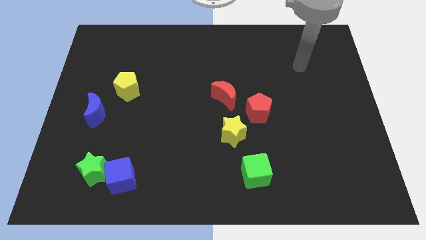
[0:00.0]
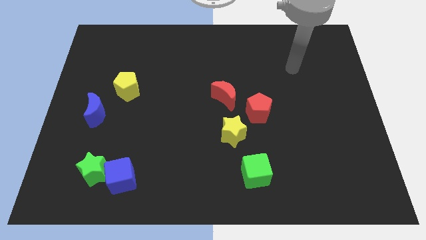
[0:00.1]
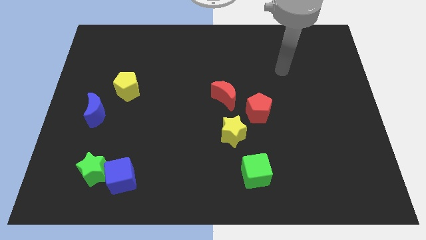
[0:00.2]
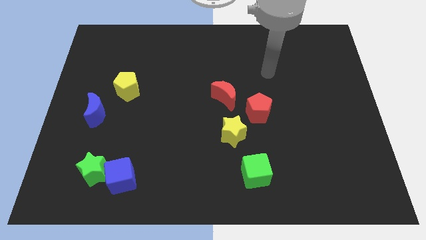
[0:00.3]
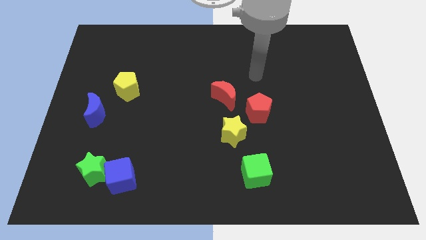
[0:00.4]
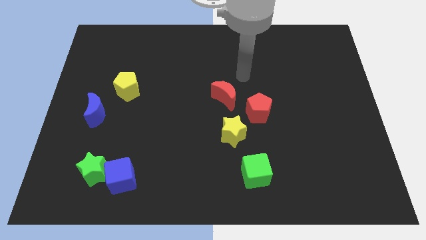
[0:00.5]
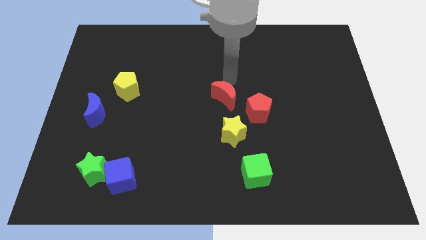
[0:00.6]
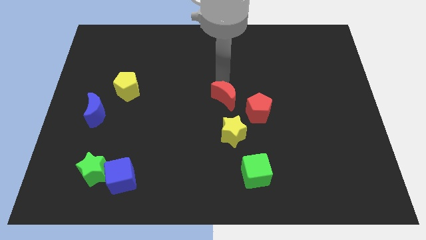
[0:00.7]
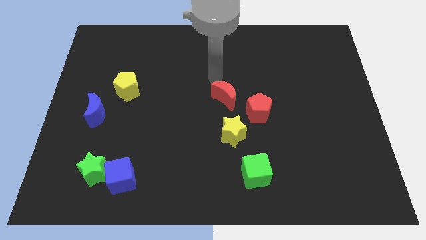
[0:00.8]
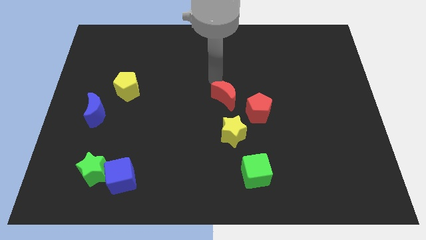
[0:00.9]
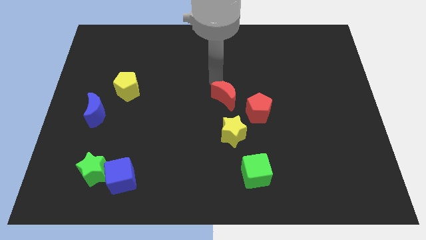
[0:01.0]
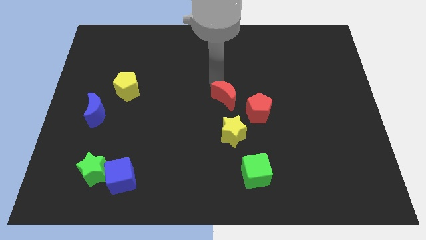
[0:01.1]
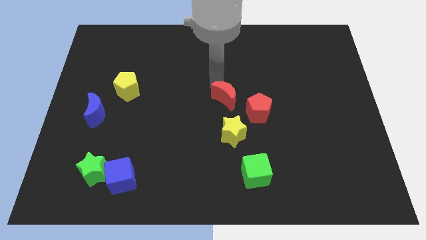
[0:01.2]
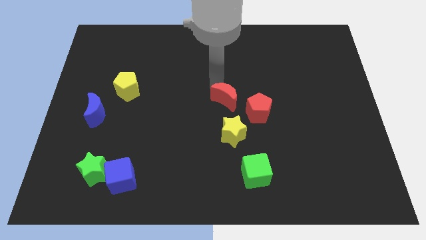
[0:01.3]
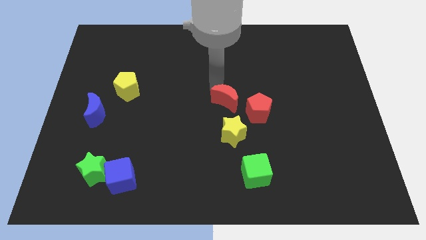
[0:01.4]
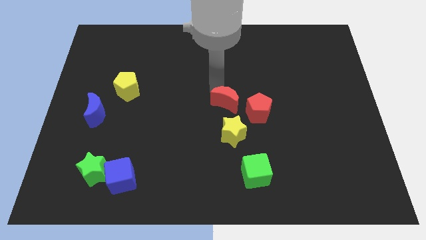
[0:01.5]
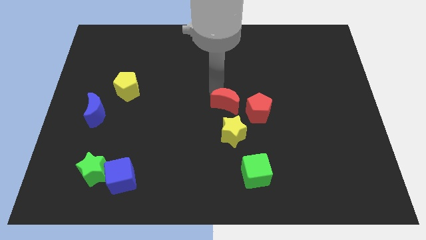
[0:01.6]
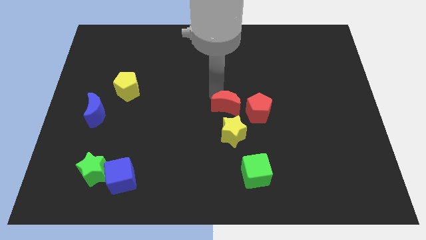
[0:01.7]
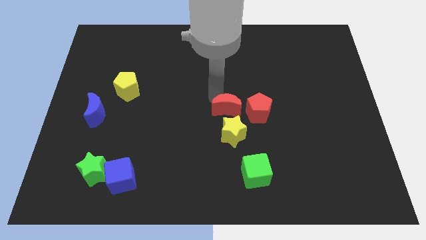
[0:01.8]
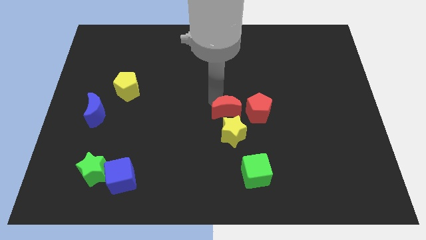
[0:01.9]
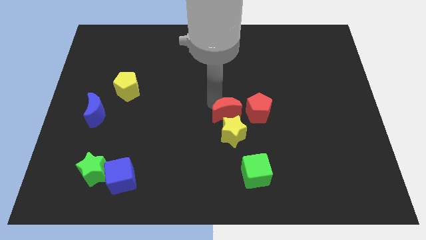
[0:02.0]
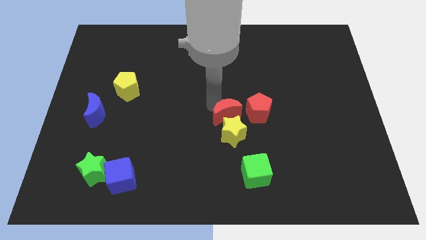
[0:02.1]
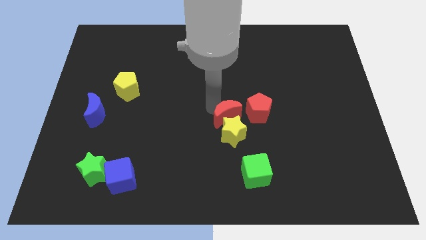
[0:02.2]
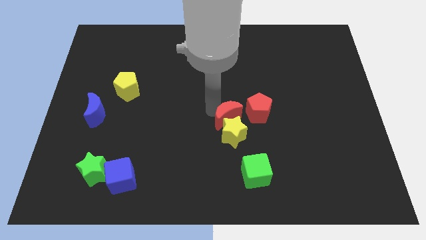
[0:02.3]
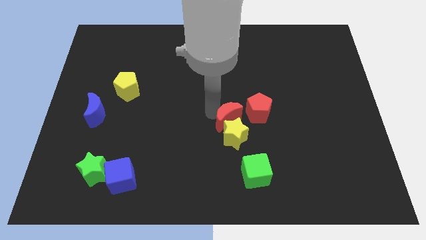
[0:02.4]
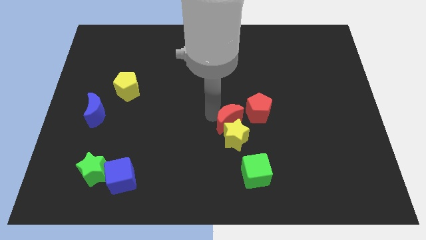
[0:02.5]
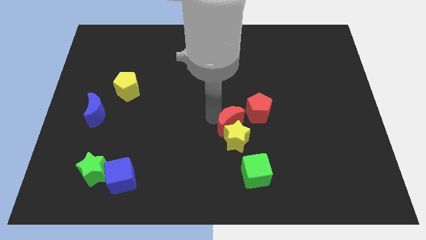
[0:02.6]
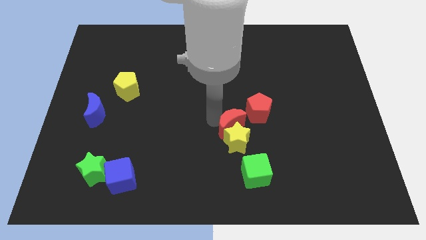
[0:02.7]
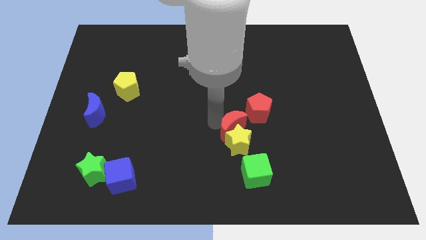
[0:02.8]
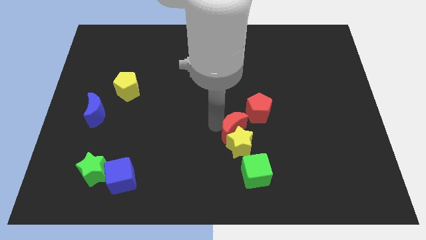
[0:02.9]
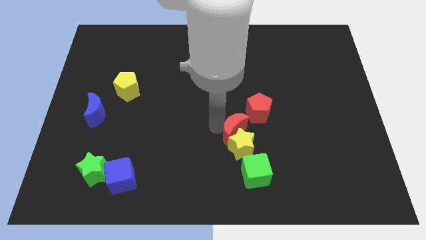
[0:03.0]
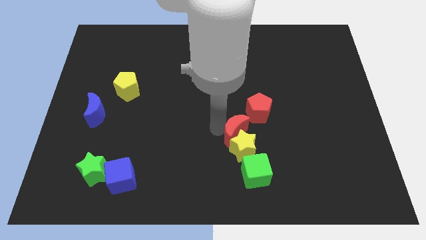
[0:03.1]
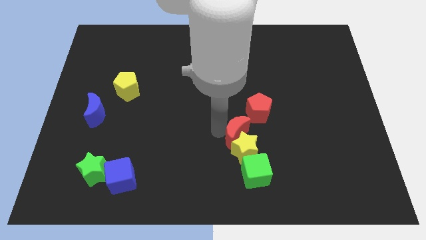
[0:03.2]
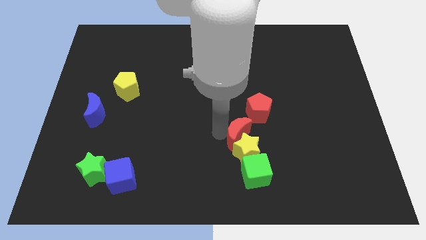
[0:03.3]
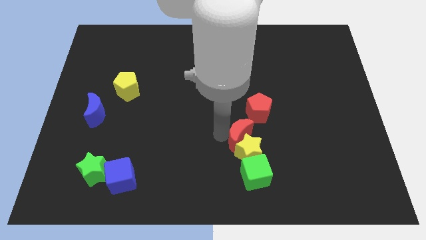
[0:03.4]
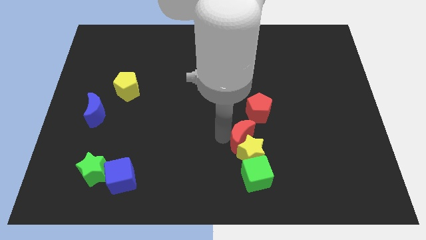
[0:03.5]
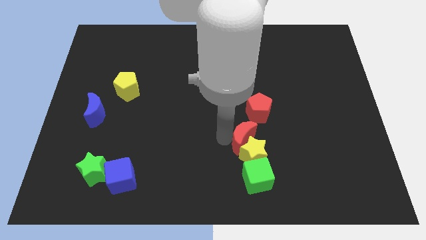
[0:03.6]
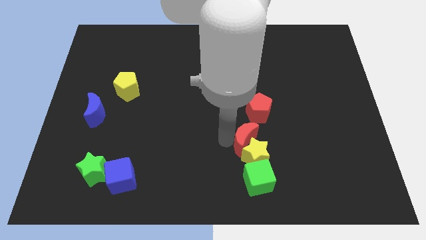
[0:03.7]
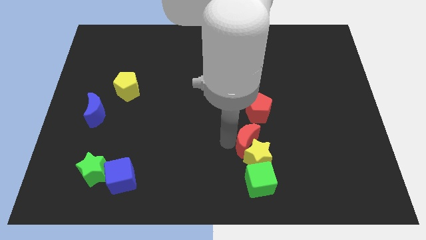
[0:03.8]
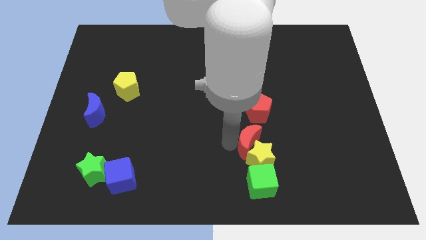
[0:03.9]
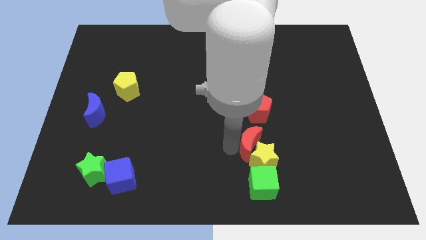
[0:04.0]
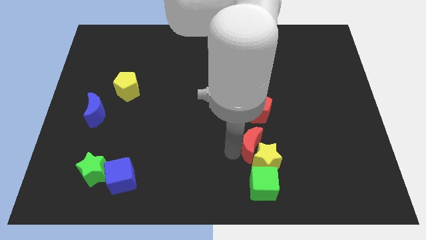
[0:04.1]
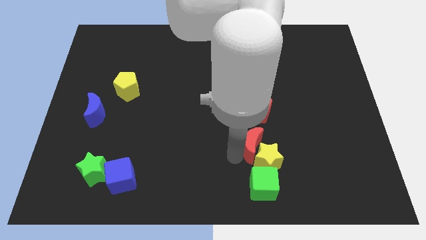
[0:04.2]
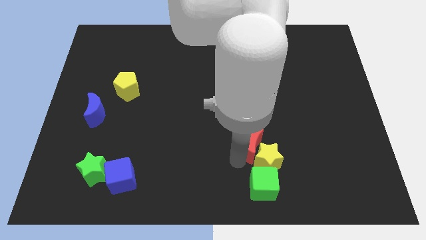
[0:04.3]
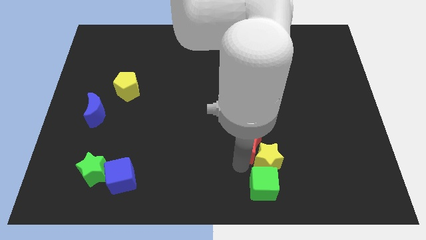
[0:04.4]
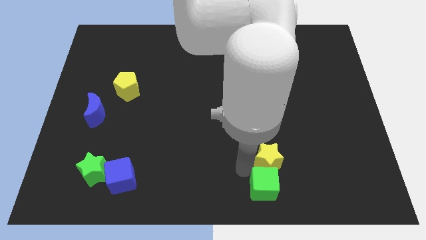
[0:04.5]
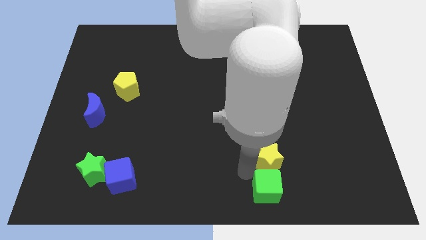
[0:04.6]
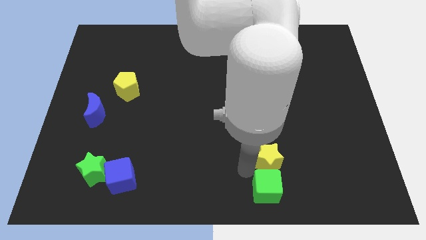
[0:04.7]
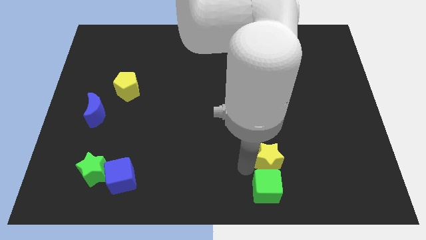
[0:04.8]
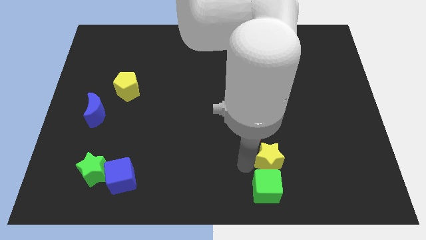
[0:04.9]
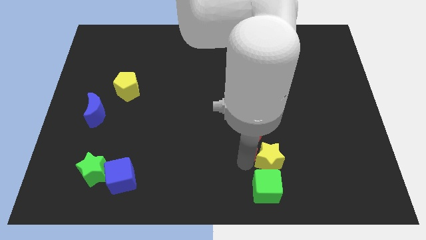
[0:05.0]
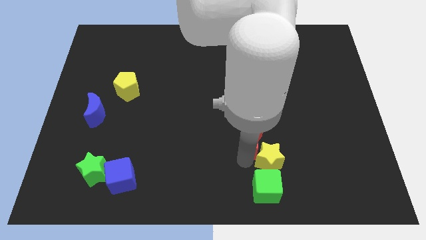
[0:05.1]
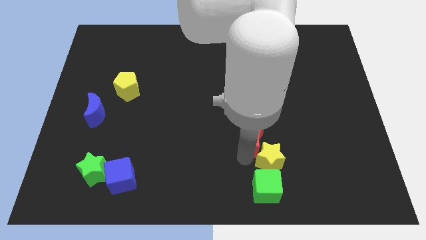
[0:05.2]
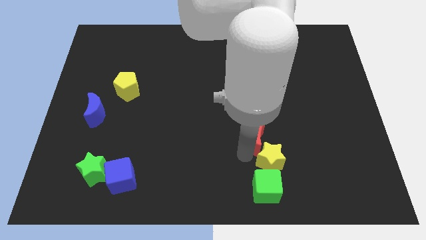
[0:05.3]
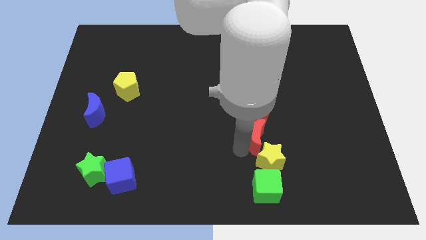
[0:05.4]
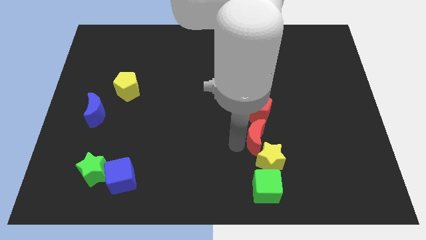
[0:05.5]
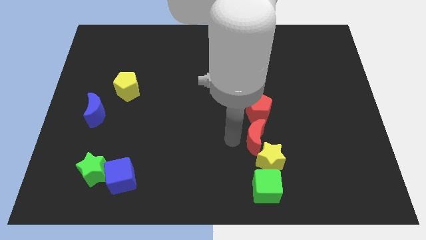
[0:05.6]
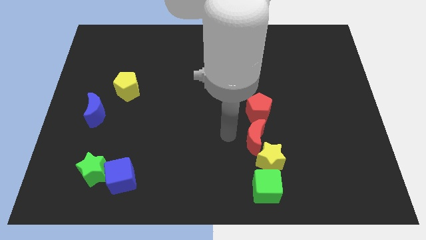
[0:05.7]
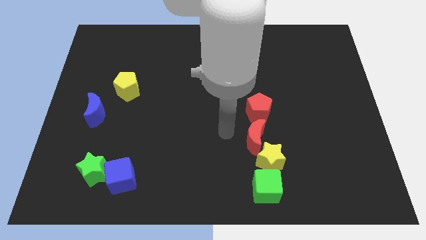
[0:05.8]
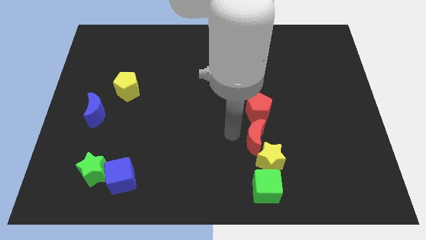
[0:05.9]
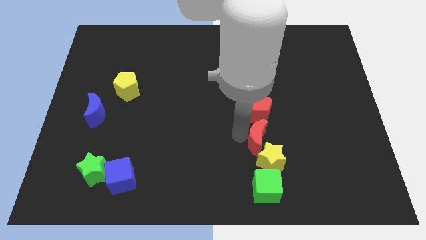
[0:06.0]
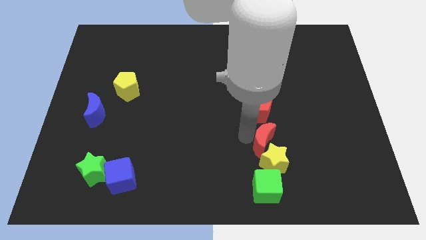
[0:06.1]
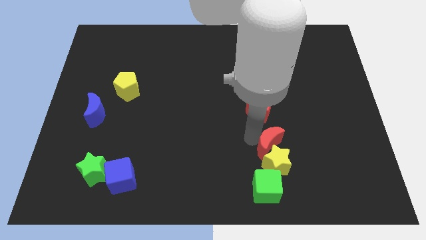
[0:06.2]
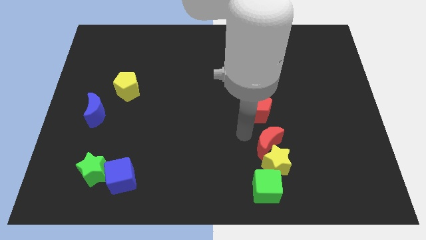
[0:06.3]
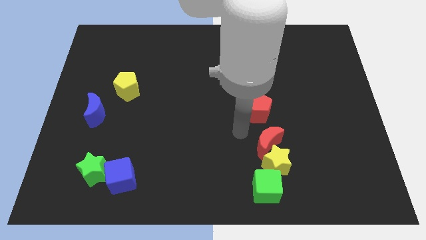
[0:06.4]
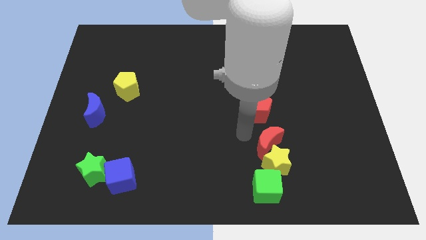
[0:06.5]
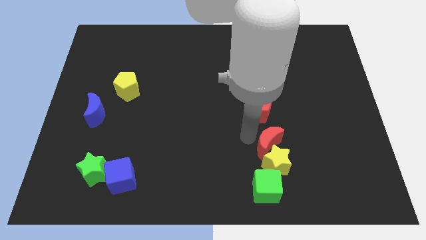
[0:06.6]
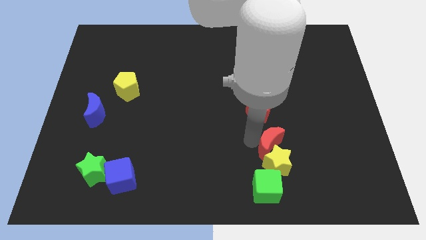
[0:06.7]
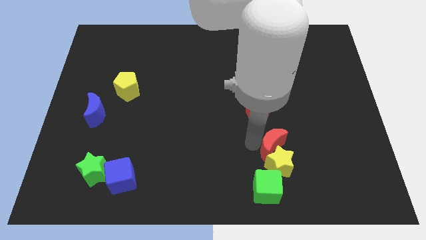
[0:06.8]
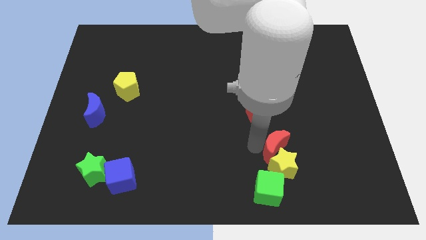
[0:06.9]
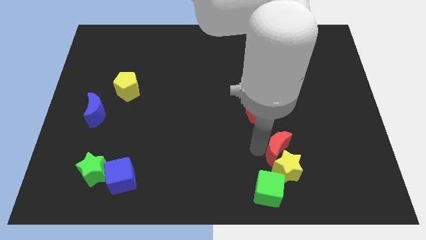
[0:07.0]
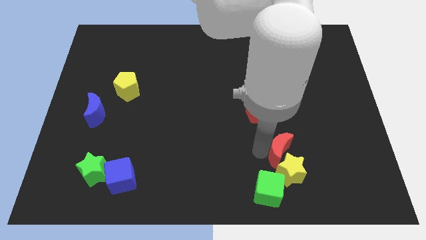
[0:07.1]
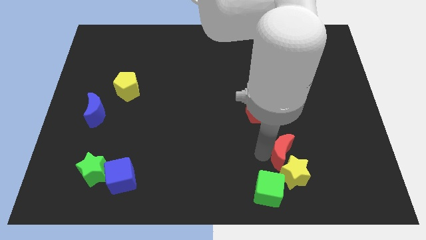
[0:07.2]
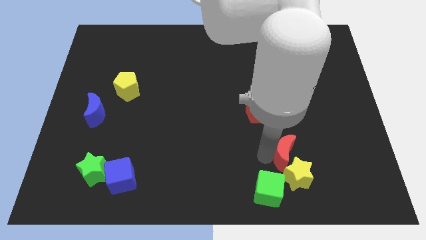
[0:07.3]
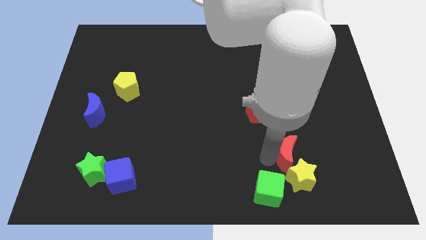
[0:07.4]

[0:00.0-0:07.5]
push the red moon down and then to the right

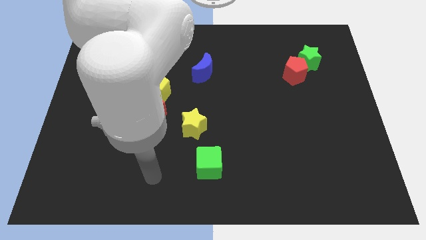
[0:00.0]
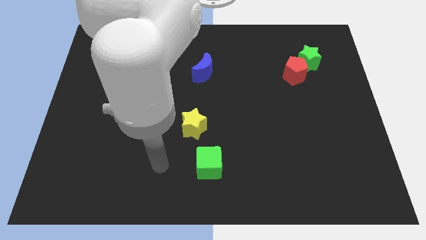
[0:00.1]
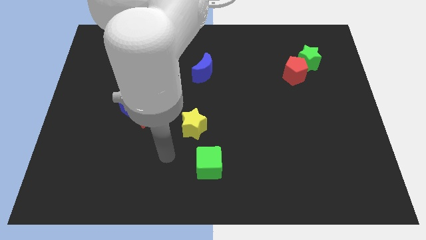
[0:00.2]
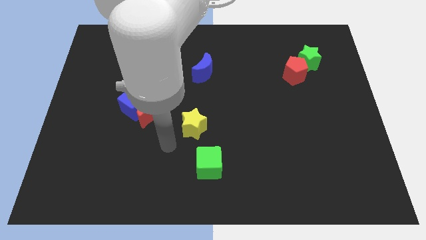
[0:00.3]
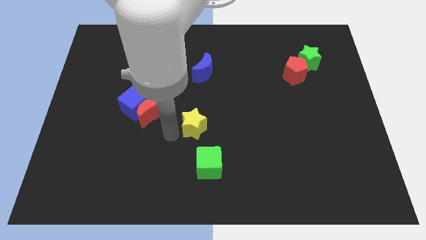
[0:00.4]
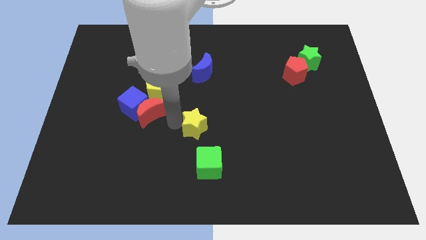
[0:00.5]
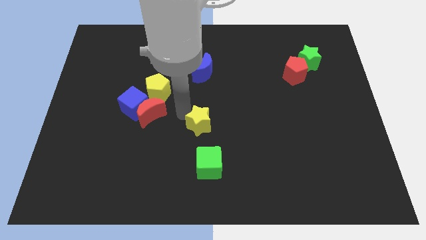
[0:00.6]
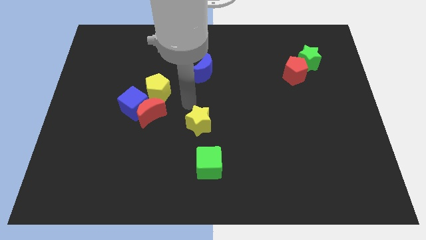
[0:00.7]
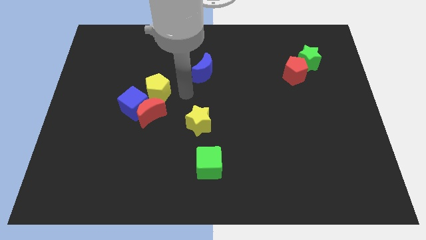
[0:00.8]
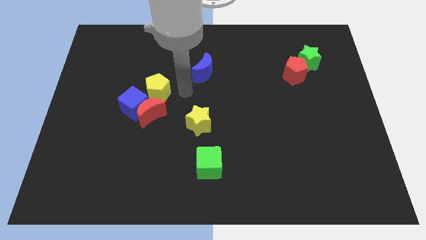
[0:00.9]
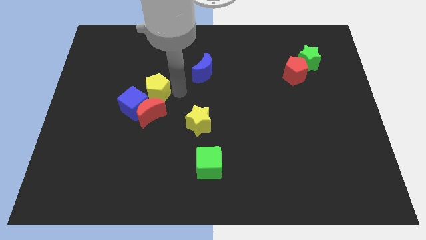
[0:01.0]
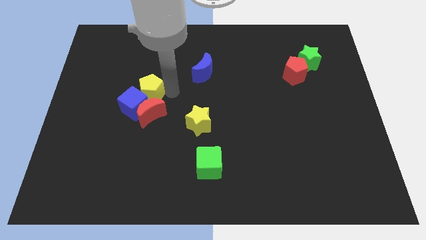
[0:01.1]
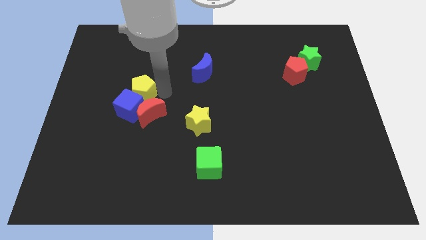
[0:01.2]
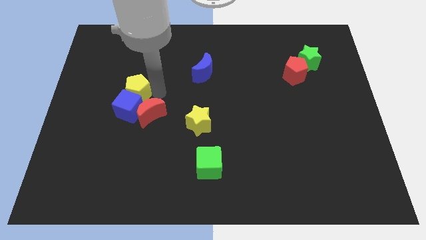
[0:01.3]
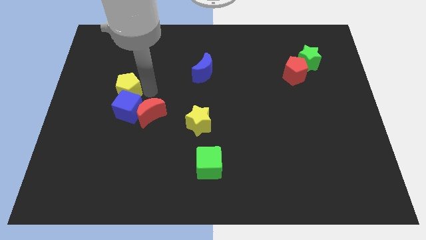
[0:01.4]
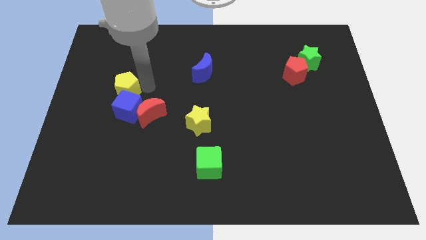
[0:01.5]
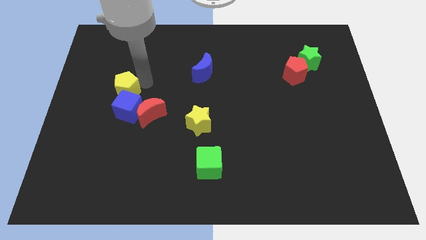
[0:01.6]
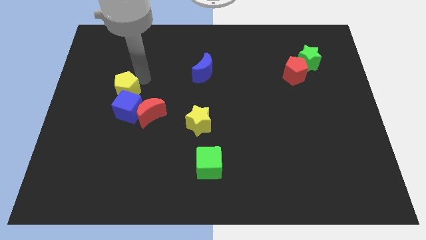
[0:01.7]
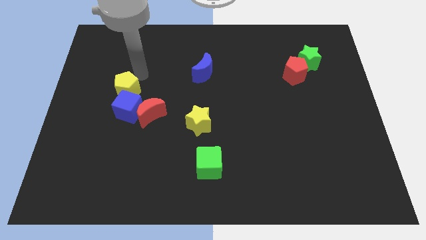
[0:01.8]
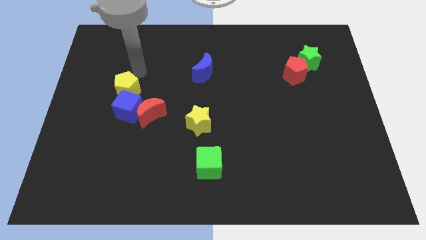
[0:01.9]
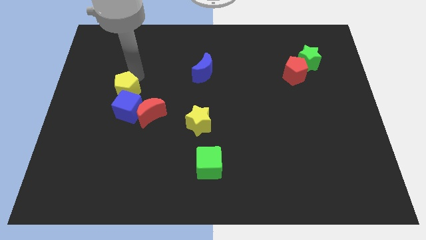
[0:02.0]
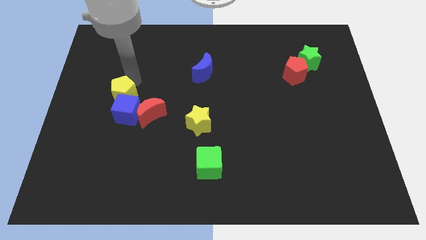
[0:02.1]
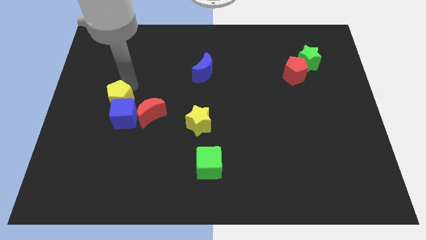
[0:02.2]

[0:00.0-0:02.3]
push the yellow pentagon downwards and to the left diagonally a bit
